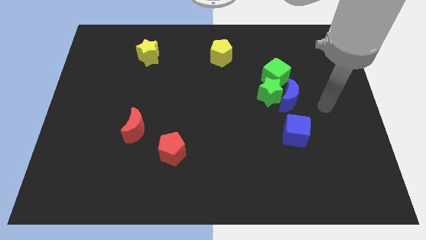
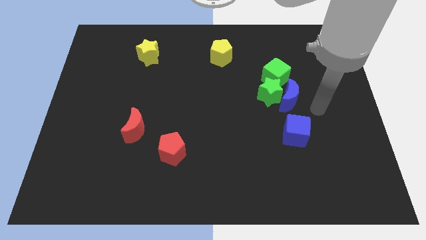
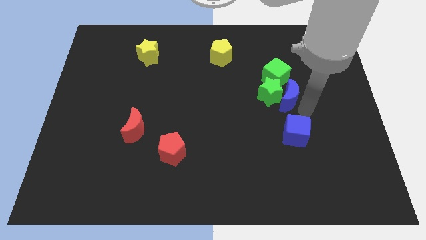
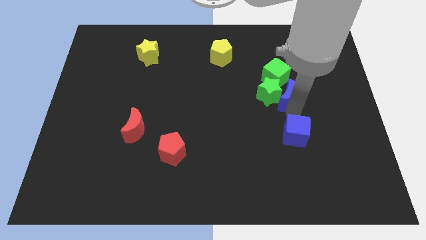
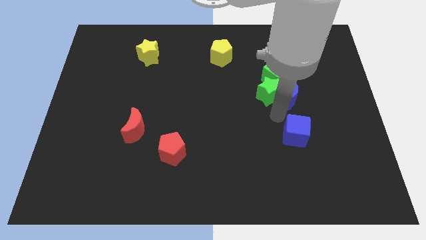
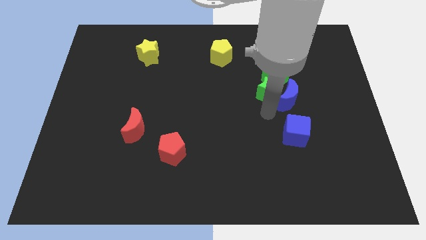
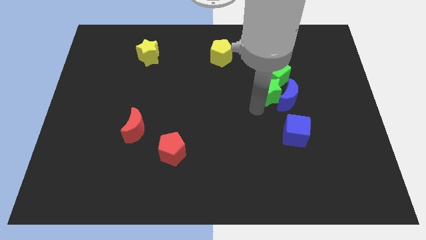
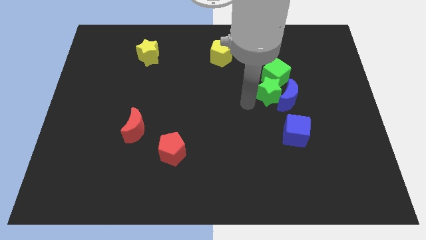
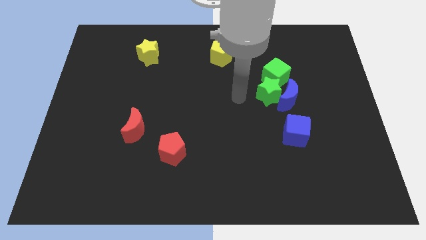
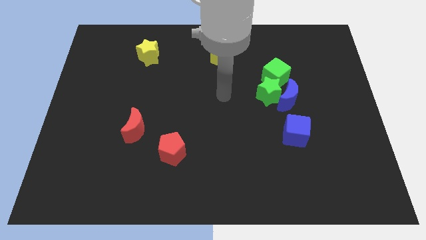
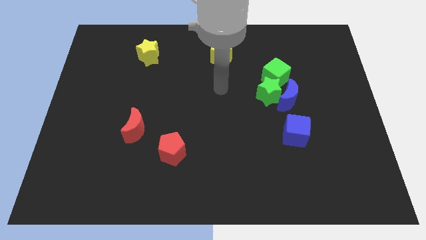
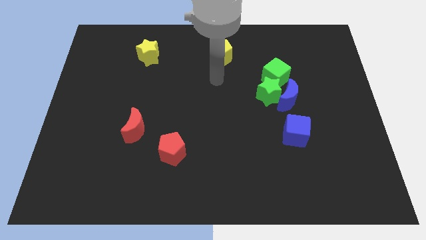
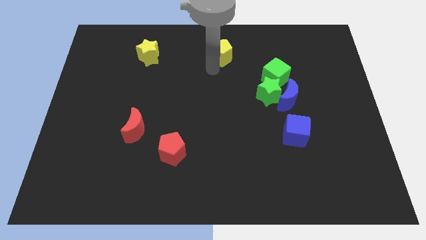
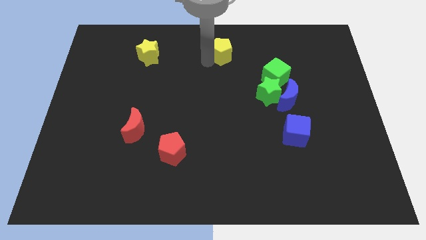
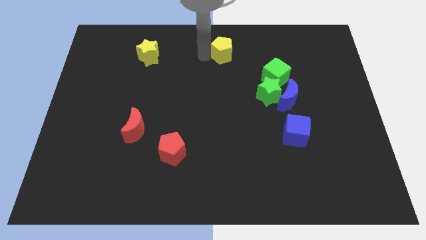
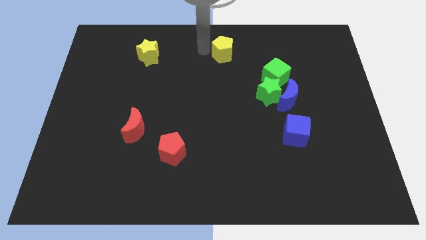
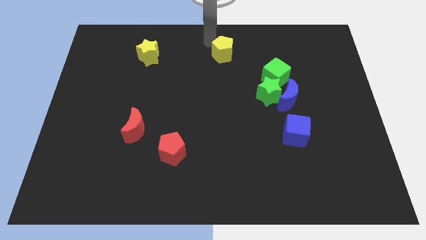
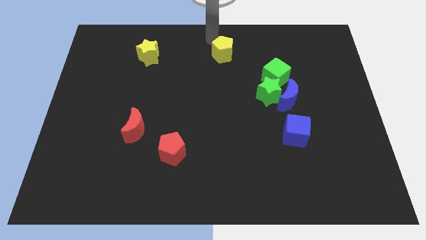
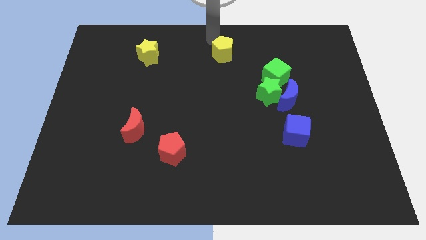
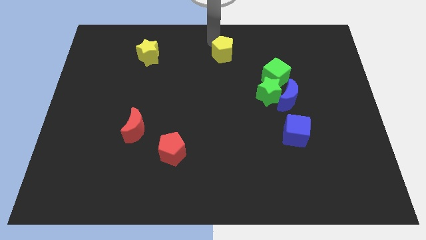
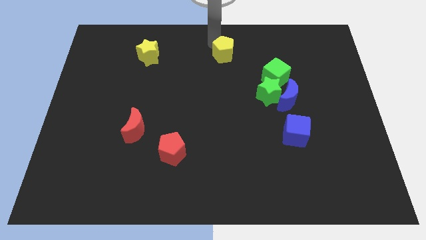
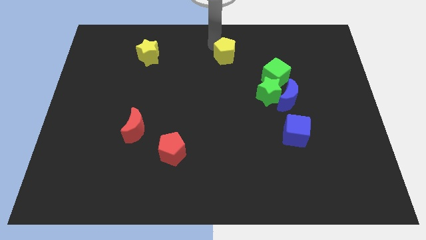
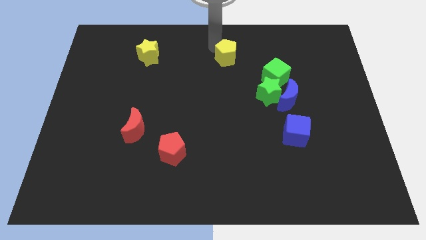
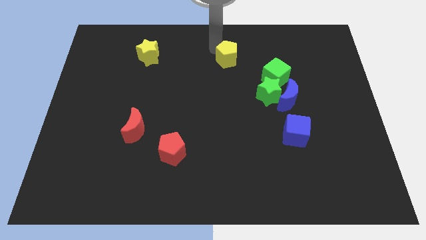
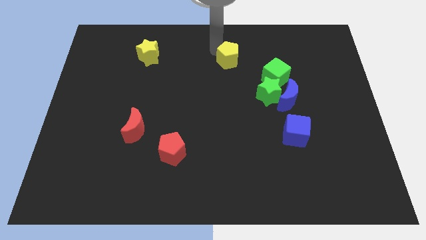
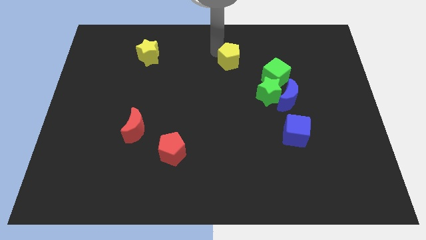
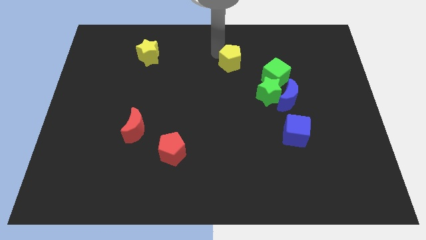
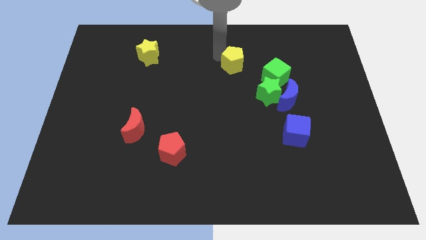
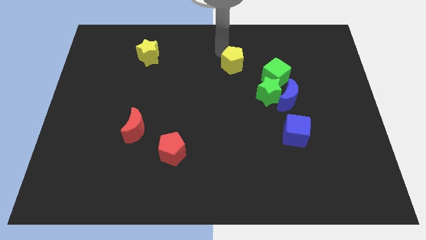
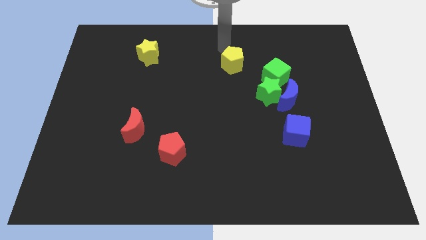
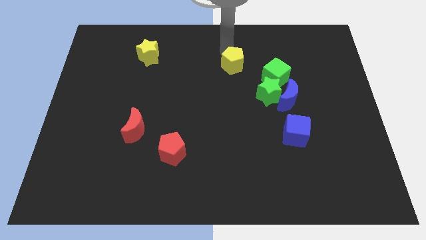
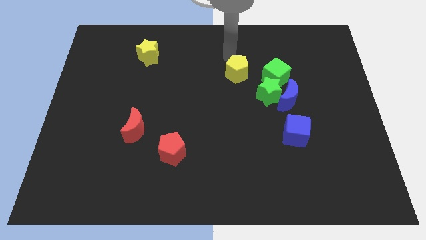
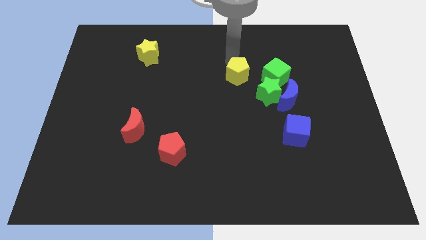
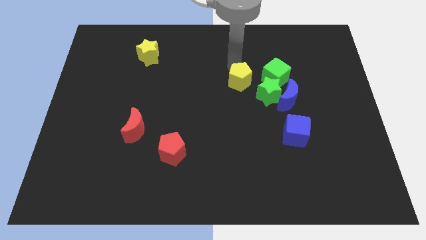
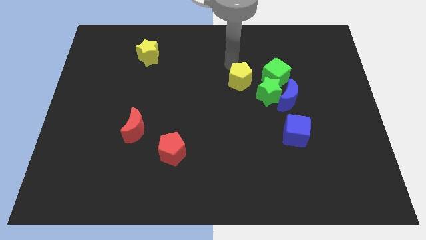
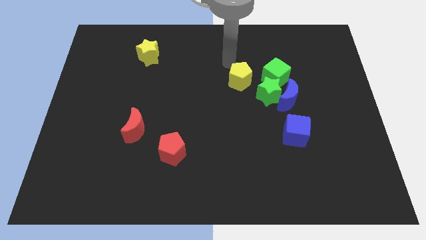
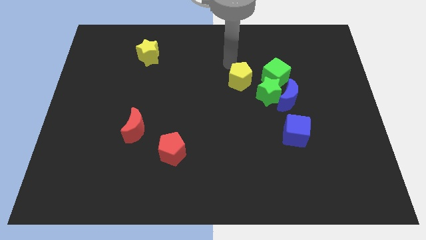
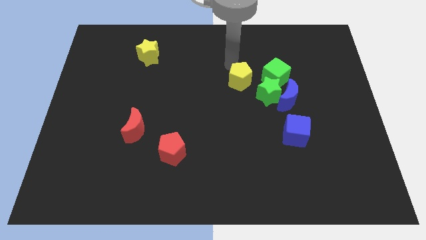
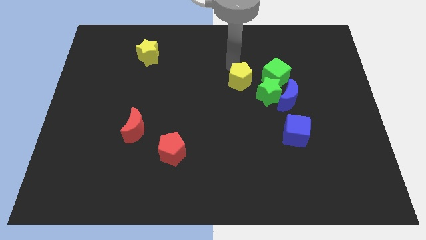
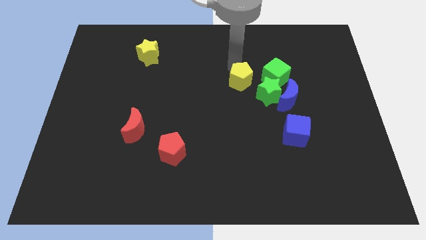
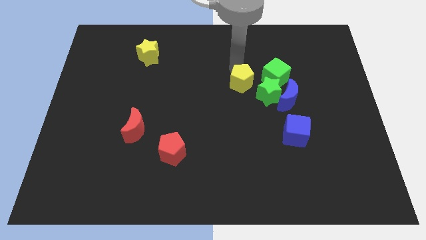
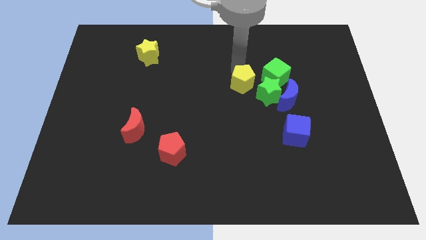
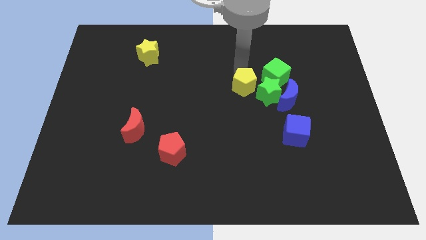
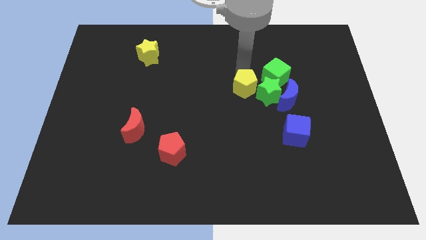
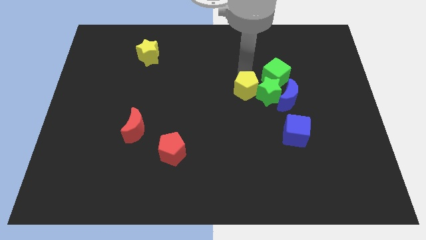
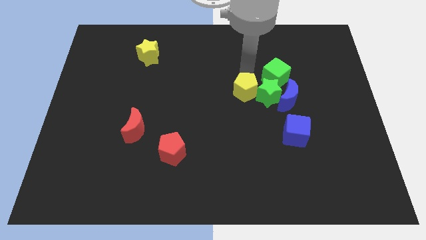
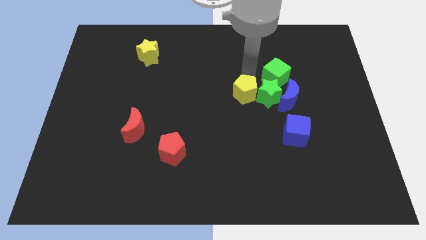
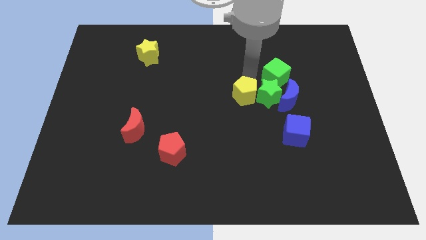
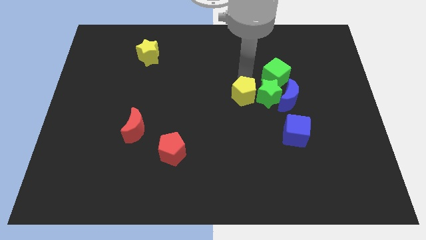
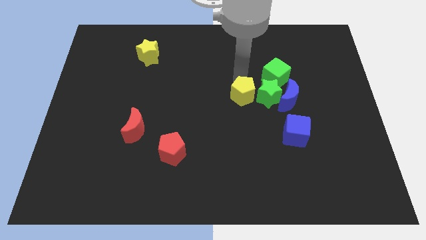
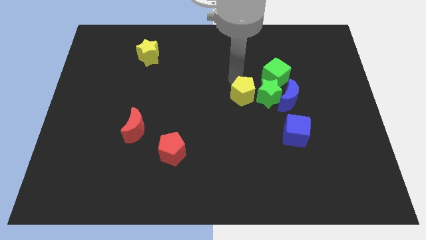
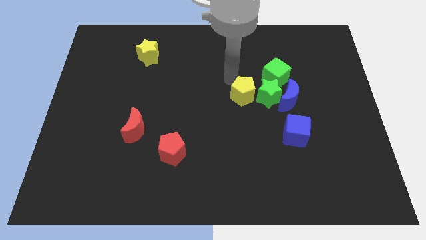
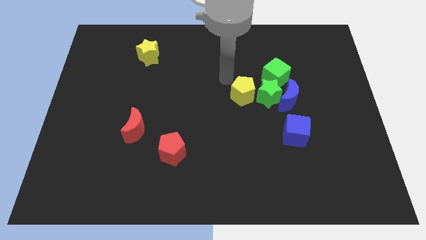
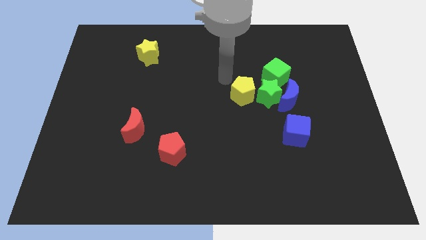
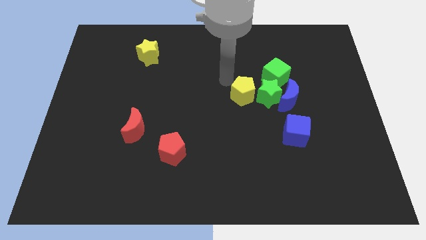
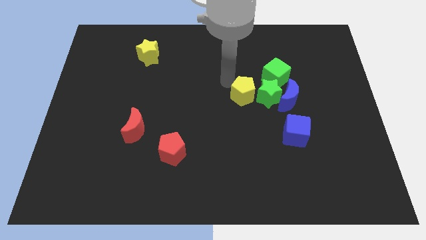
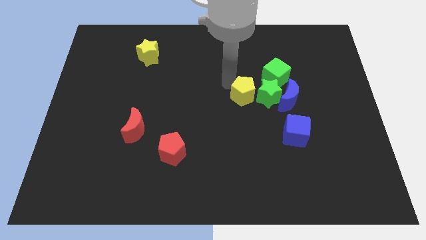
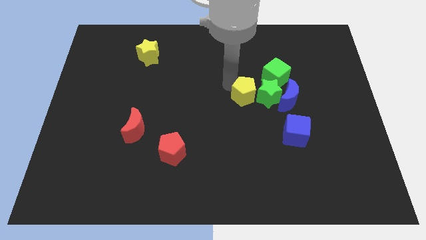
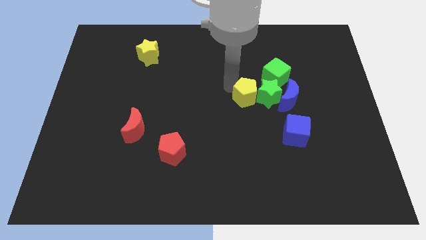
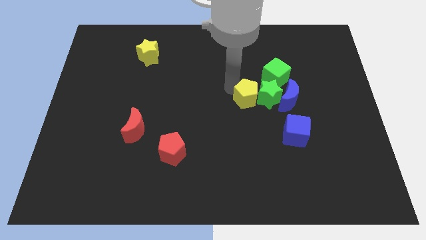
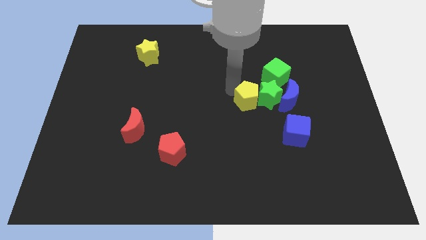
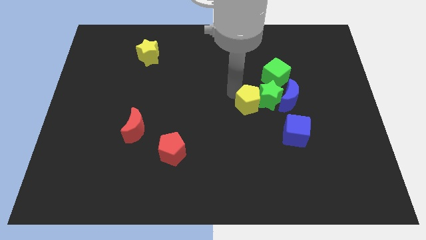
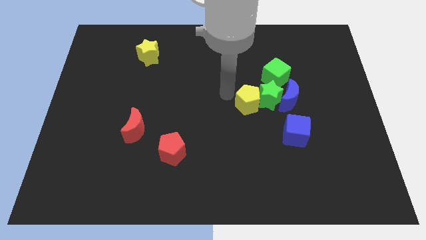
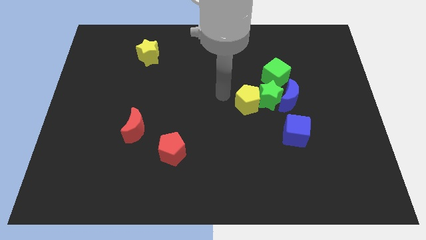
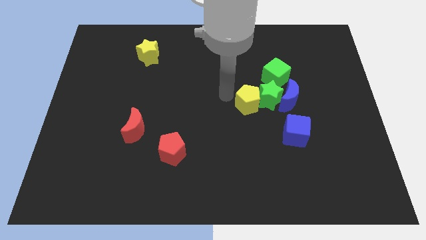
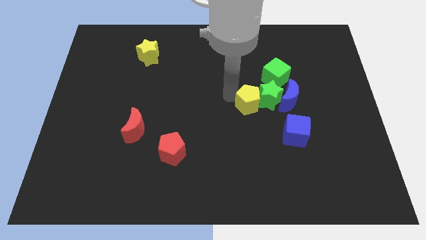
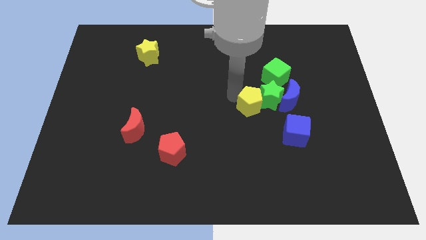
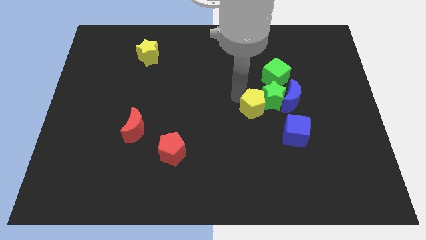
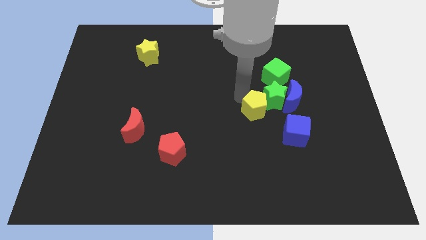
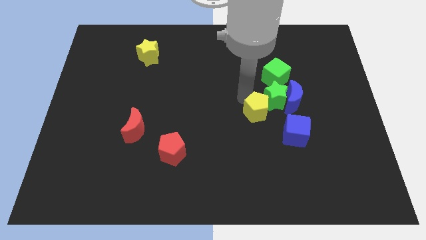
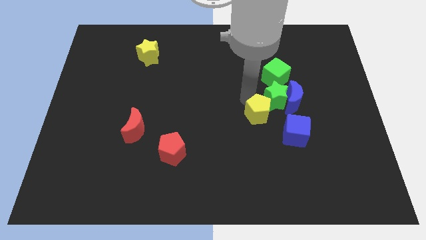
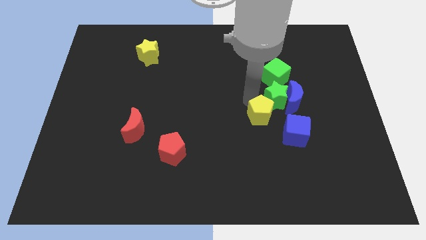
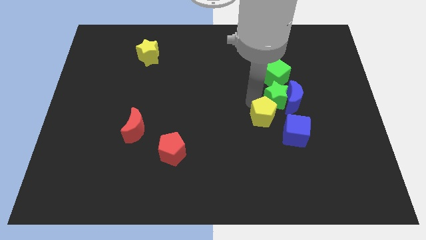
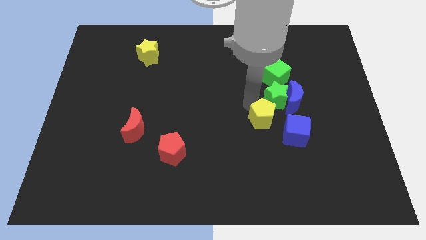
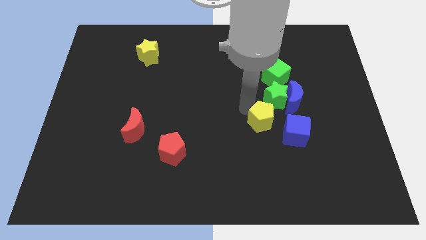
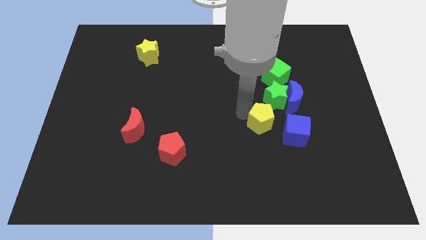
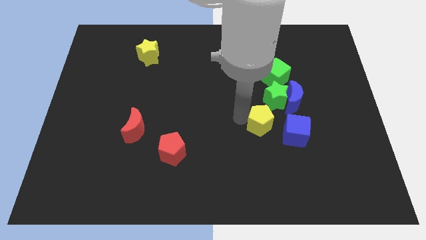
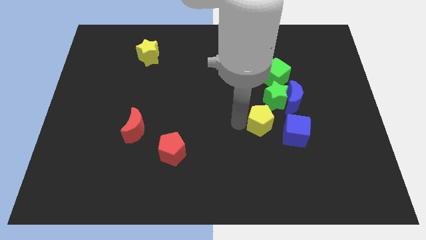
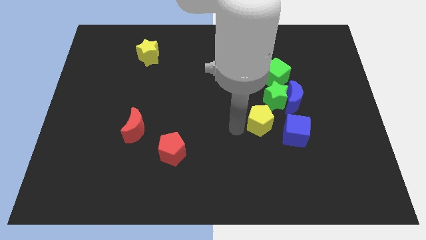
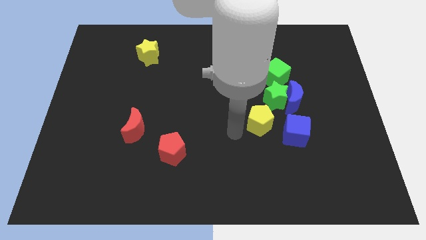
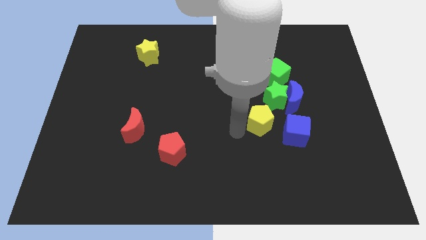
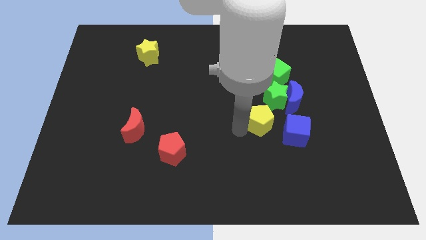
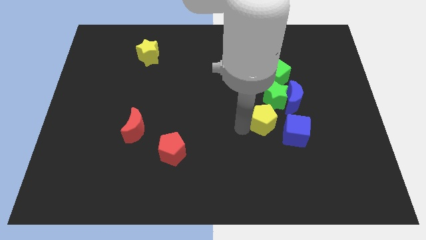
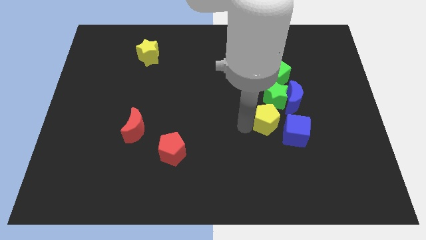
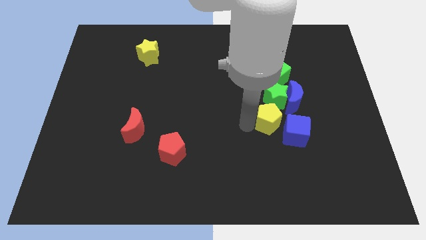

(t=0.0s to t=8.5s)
push the yellow pentagon down and right diagonally
